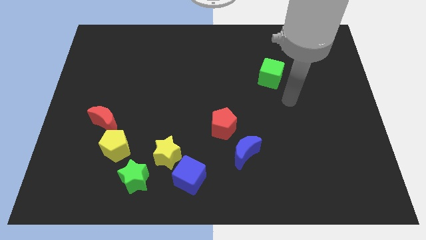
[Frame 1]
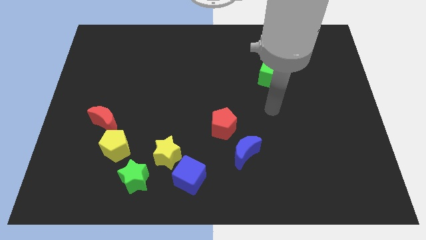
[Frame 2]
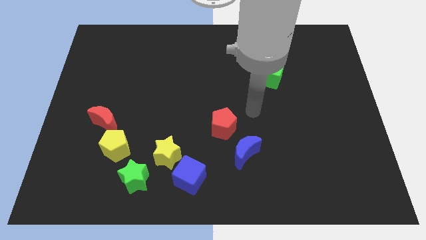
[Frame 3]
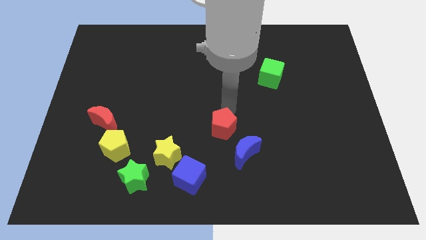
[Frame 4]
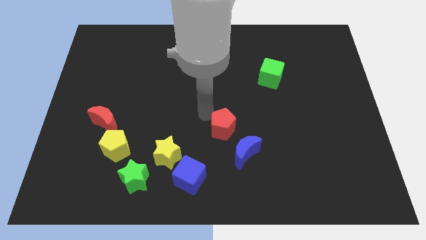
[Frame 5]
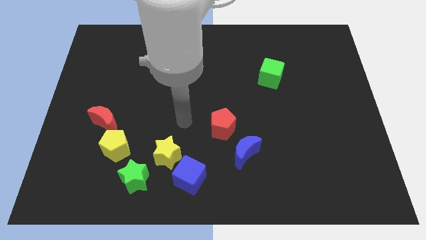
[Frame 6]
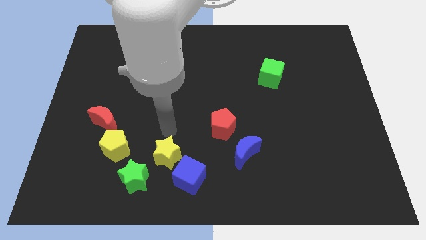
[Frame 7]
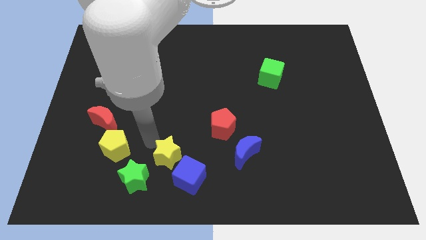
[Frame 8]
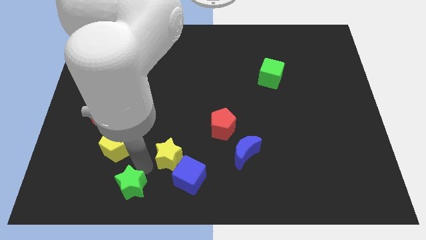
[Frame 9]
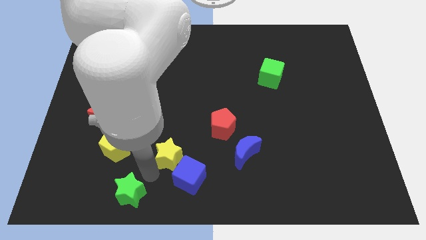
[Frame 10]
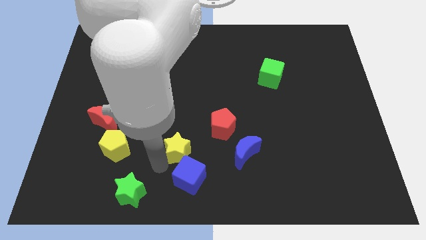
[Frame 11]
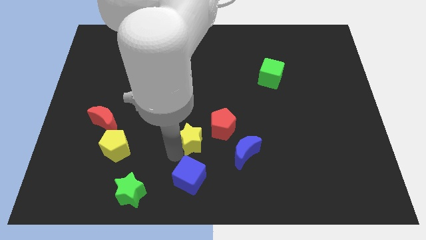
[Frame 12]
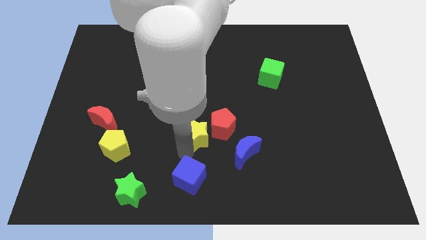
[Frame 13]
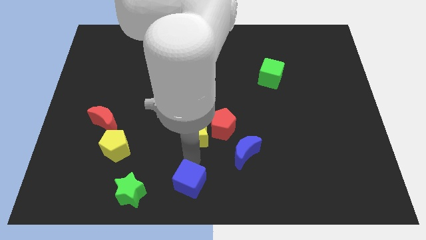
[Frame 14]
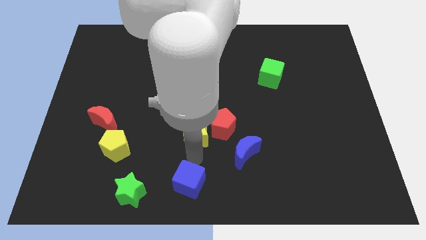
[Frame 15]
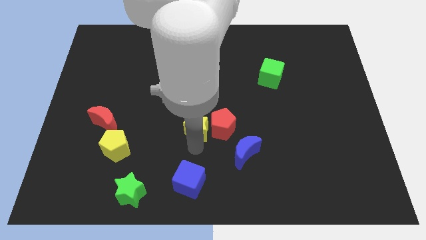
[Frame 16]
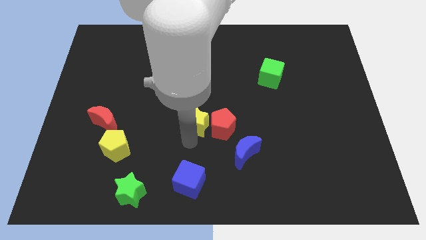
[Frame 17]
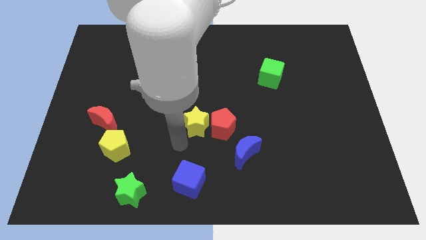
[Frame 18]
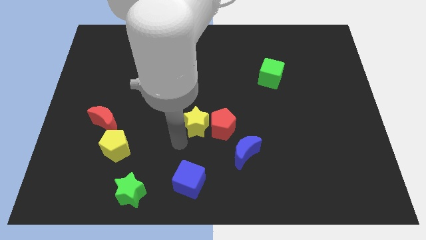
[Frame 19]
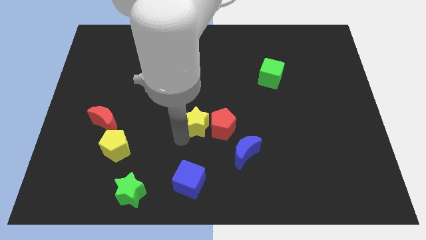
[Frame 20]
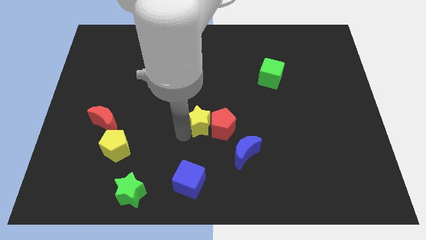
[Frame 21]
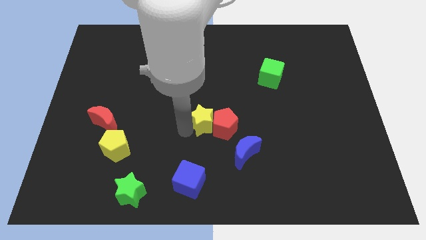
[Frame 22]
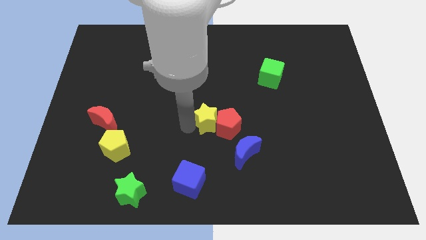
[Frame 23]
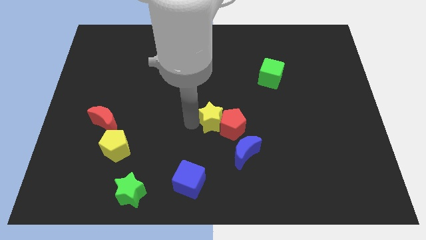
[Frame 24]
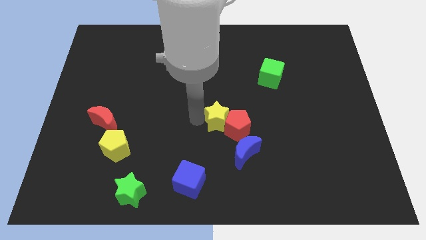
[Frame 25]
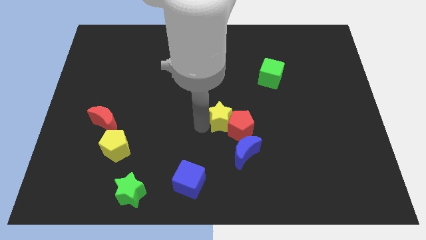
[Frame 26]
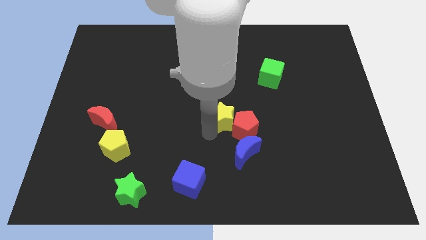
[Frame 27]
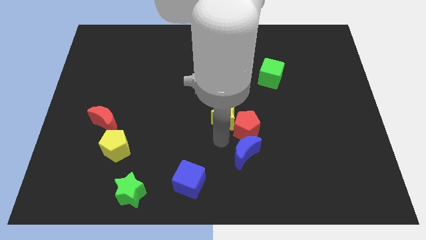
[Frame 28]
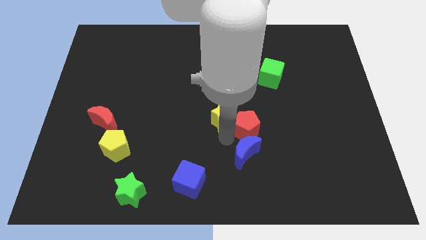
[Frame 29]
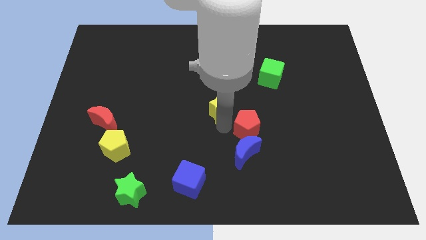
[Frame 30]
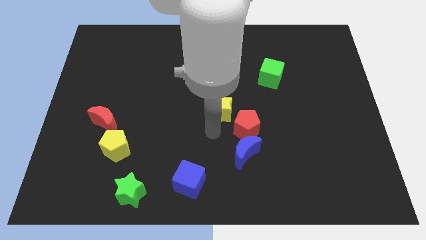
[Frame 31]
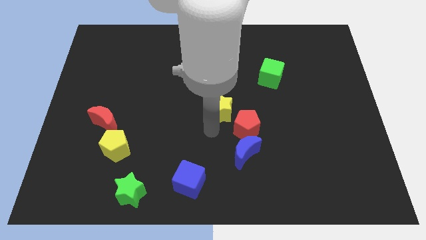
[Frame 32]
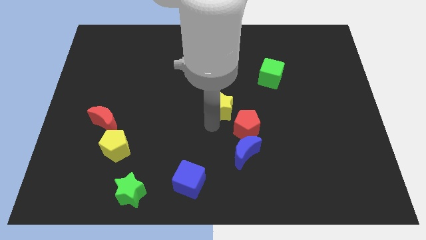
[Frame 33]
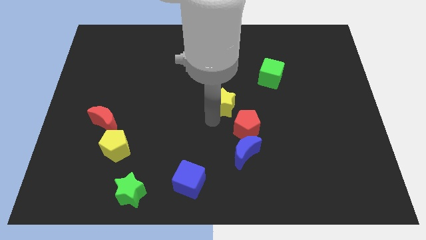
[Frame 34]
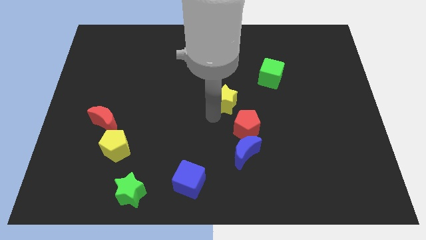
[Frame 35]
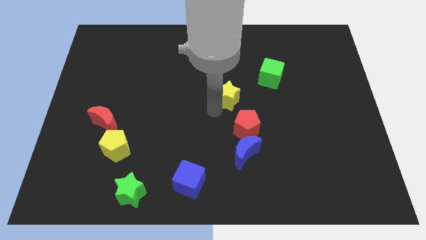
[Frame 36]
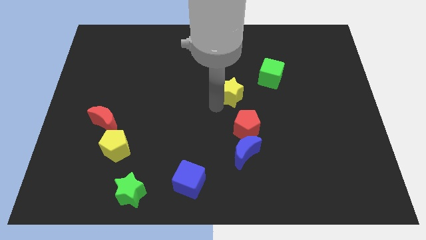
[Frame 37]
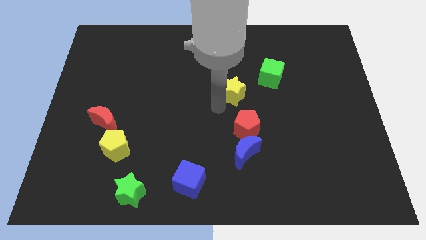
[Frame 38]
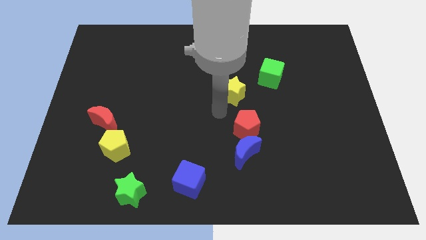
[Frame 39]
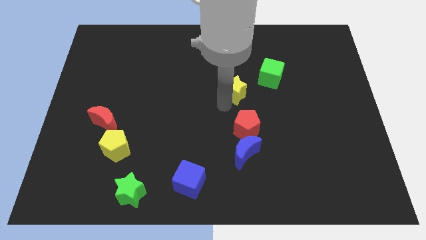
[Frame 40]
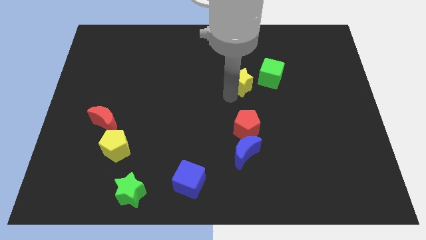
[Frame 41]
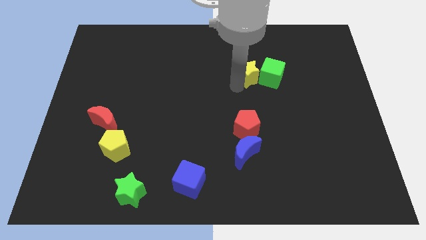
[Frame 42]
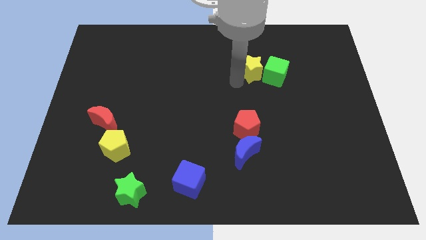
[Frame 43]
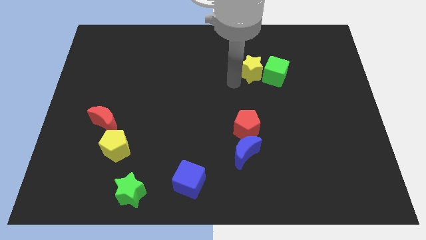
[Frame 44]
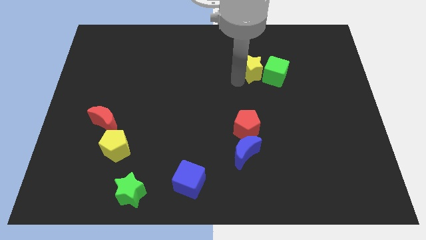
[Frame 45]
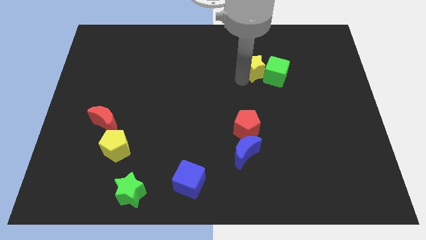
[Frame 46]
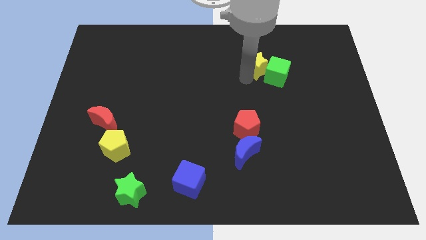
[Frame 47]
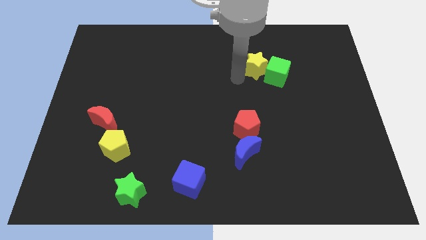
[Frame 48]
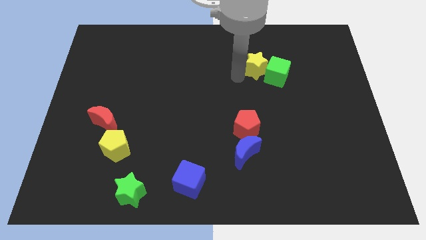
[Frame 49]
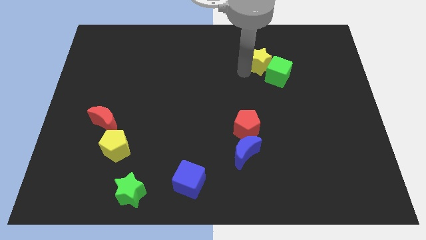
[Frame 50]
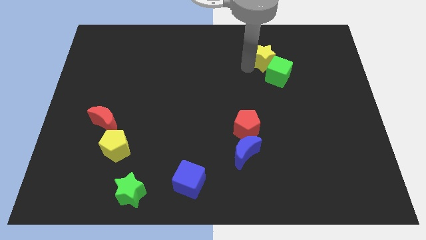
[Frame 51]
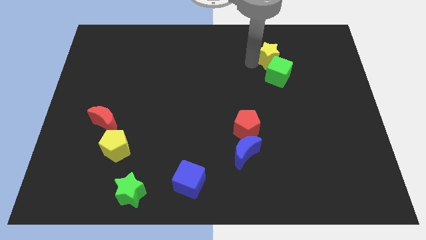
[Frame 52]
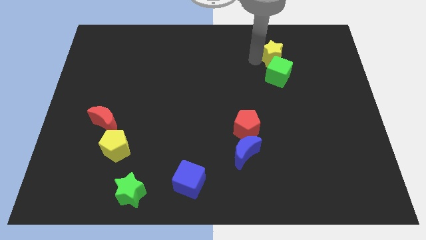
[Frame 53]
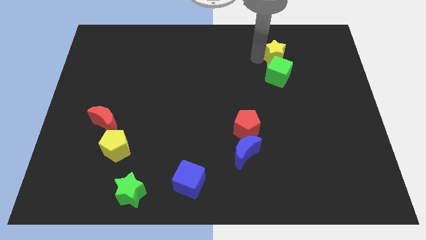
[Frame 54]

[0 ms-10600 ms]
move the yellow star to the top right of the green cube

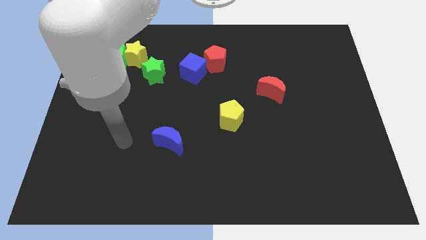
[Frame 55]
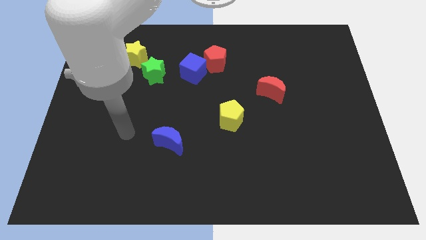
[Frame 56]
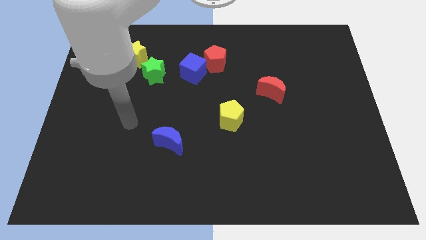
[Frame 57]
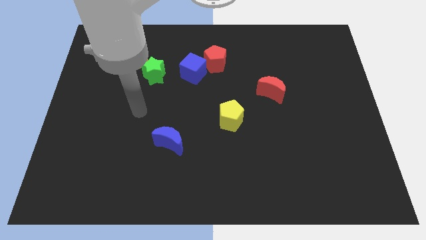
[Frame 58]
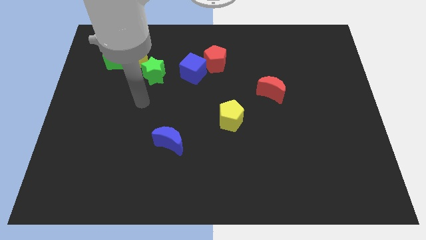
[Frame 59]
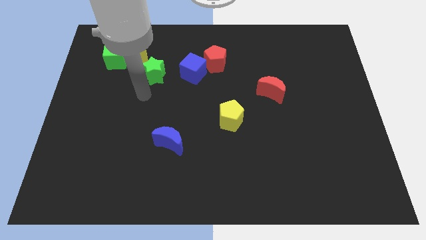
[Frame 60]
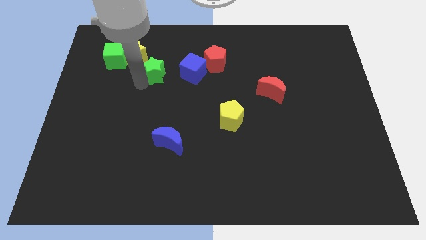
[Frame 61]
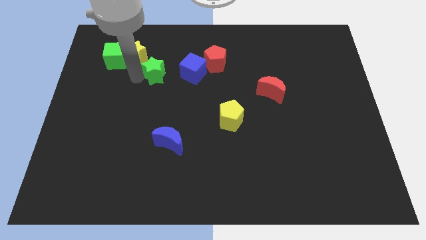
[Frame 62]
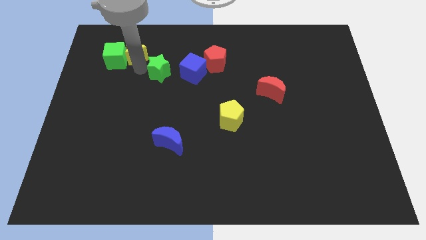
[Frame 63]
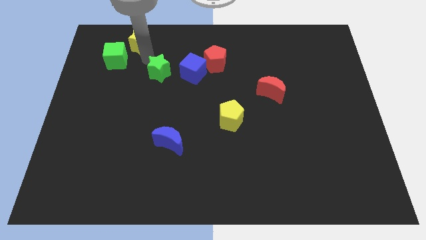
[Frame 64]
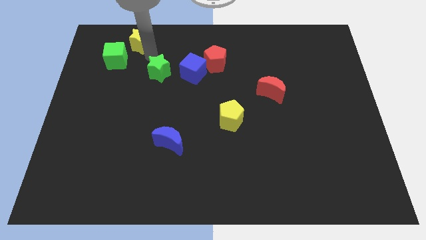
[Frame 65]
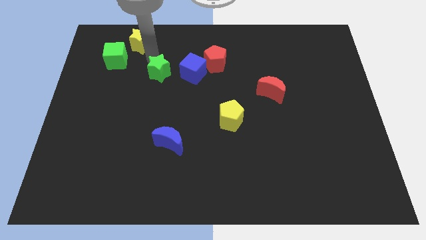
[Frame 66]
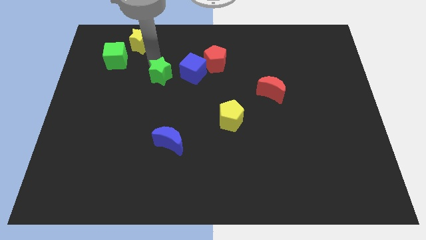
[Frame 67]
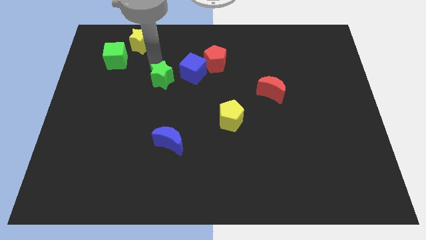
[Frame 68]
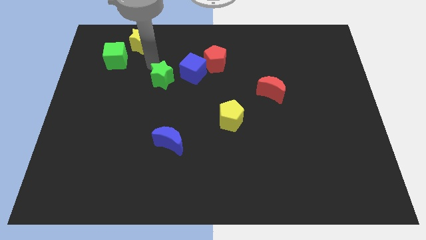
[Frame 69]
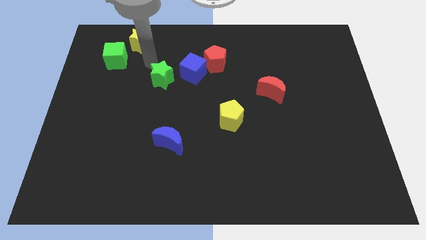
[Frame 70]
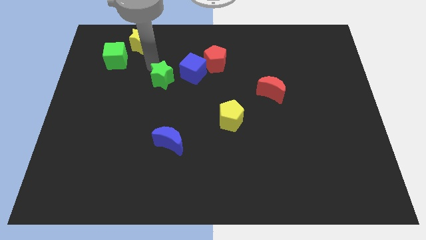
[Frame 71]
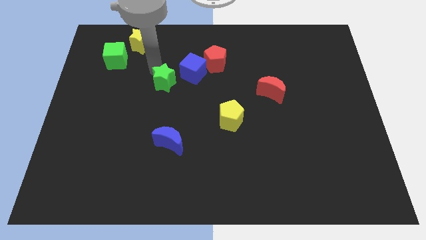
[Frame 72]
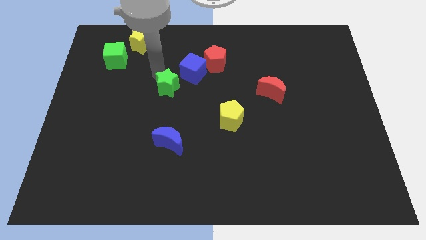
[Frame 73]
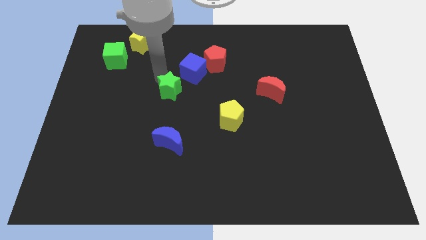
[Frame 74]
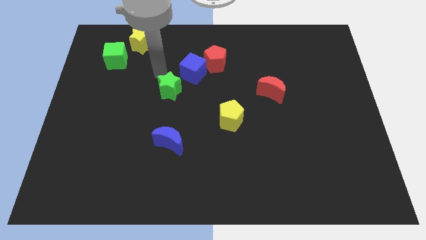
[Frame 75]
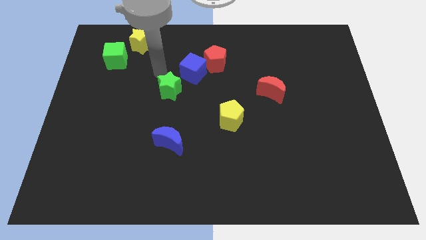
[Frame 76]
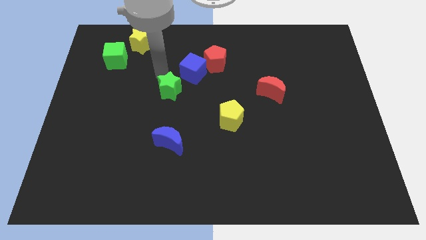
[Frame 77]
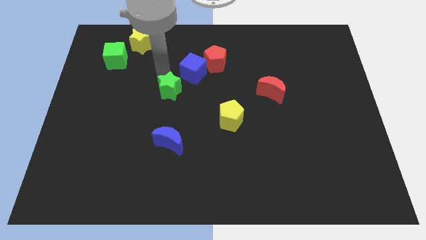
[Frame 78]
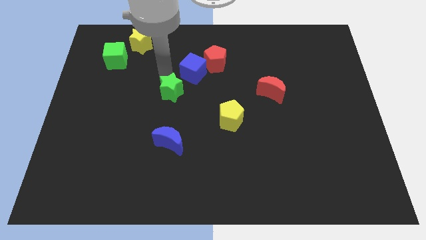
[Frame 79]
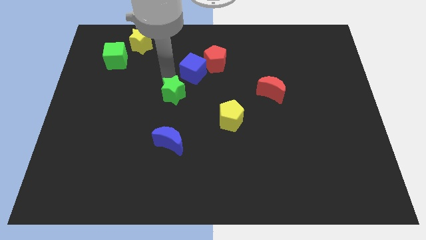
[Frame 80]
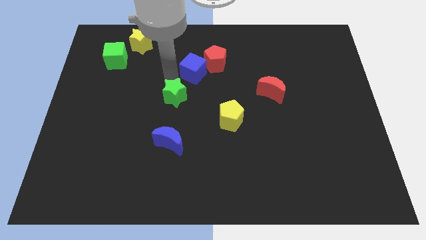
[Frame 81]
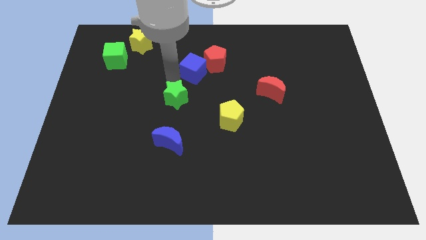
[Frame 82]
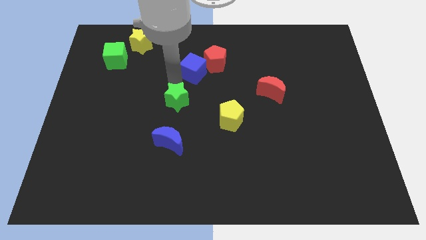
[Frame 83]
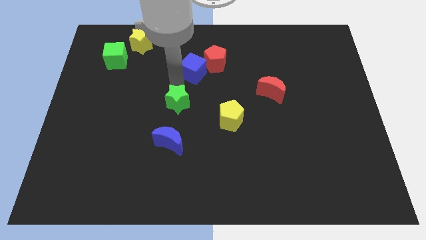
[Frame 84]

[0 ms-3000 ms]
put the green star to the left side of the yellow pentagon
